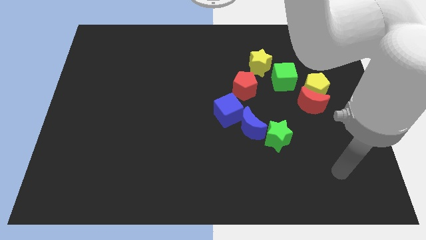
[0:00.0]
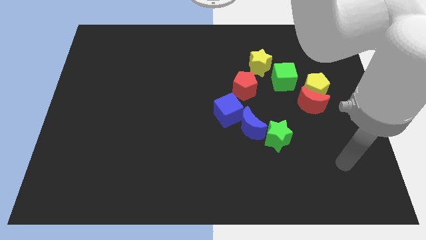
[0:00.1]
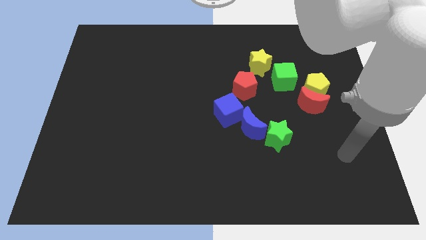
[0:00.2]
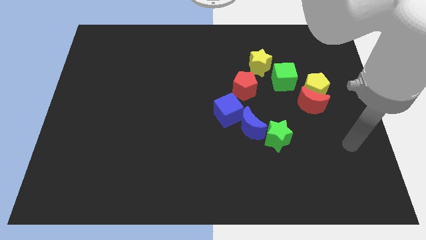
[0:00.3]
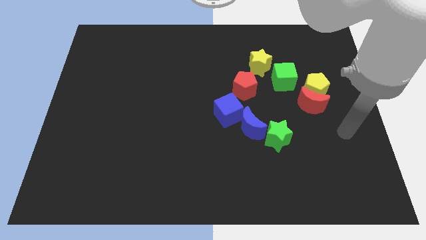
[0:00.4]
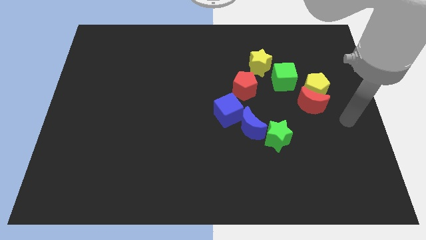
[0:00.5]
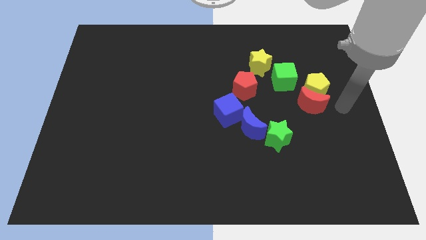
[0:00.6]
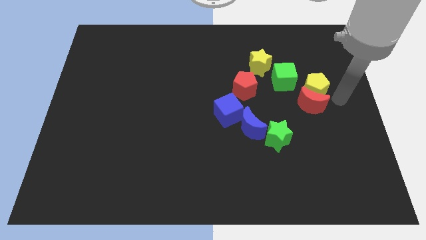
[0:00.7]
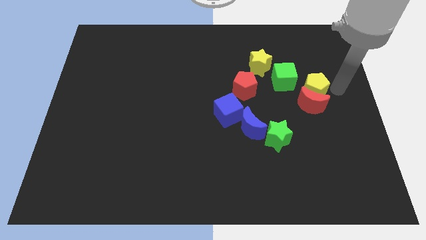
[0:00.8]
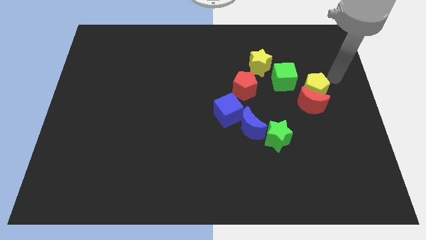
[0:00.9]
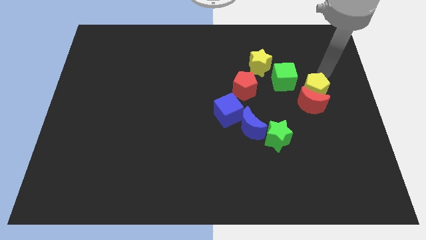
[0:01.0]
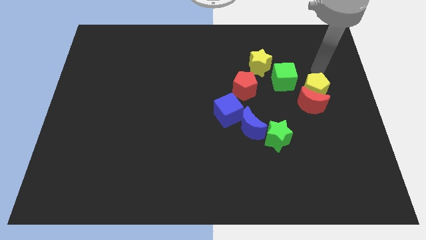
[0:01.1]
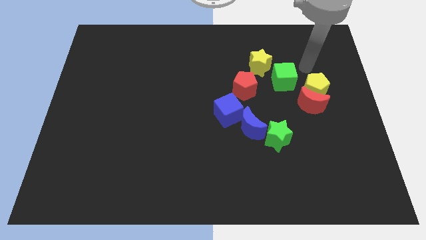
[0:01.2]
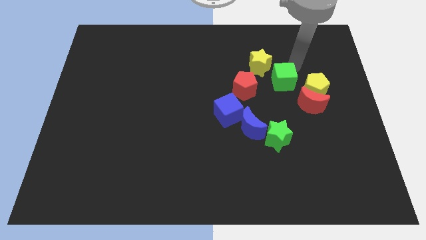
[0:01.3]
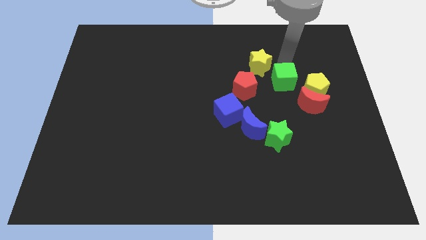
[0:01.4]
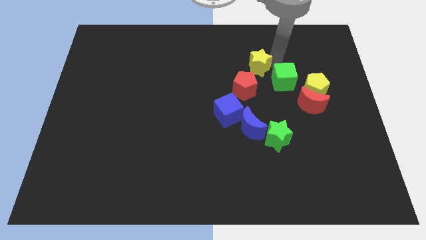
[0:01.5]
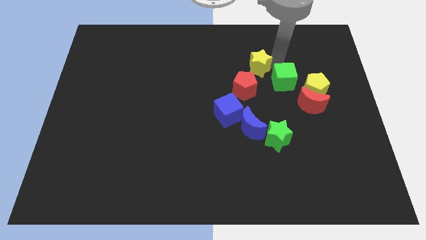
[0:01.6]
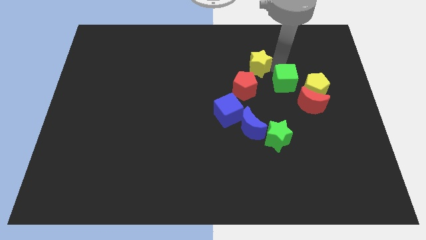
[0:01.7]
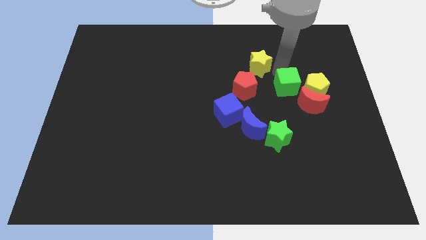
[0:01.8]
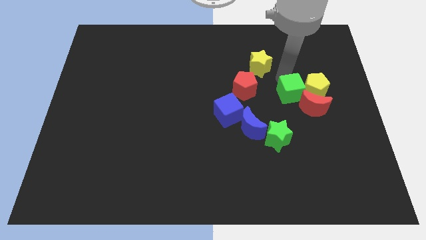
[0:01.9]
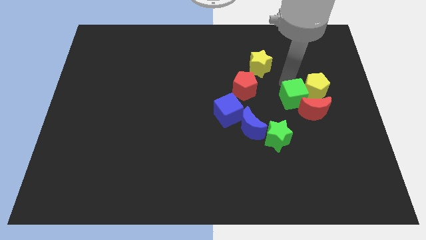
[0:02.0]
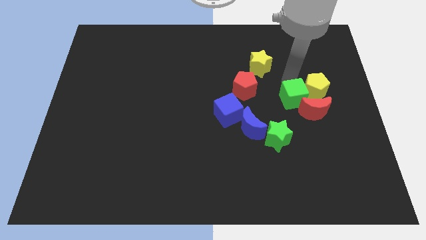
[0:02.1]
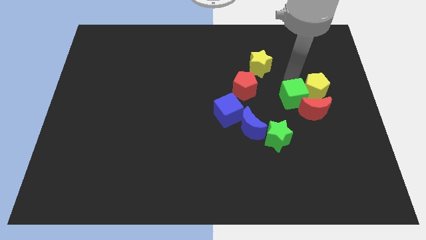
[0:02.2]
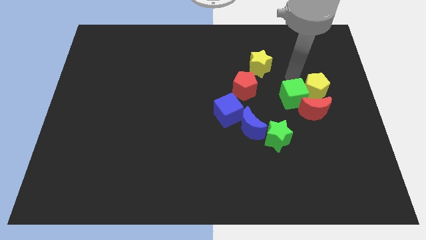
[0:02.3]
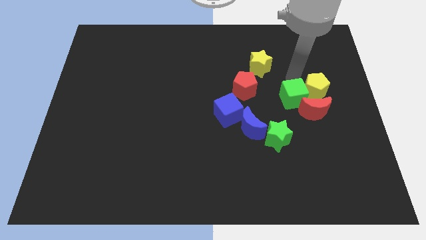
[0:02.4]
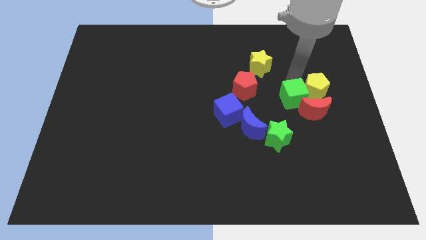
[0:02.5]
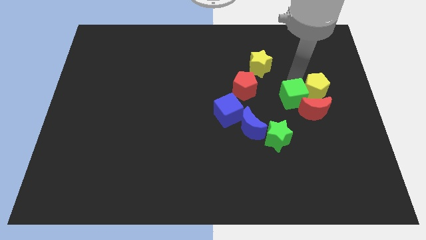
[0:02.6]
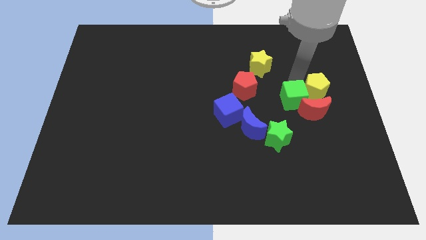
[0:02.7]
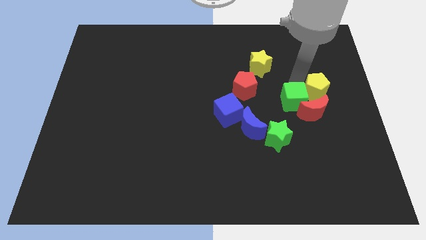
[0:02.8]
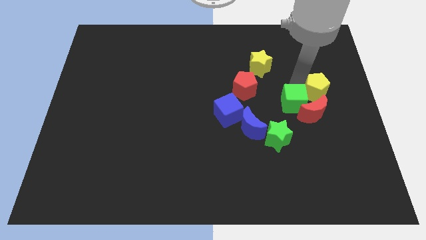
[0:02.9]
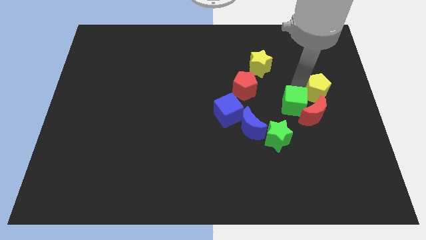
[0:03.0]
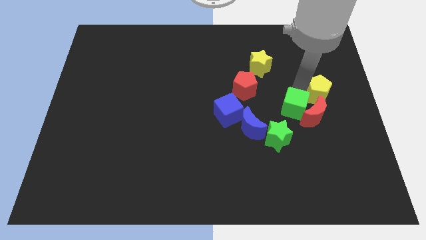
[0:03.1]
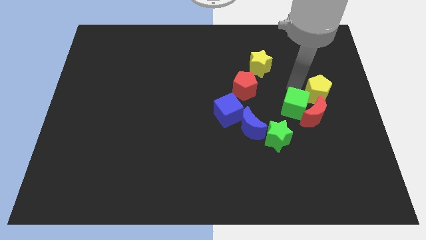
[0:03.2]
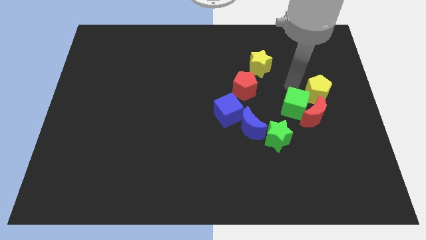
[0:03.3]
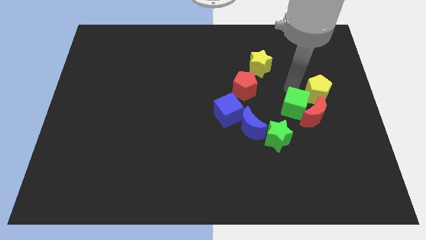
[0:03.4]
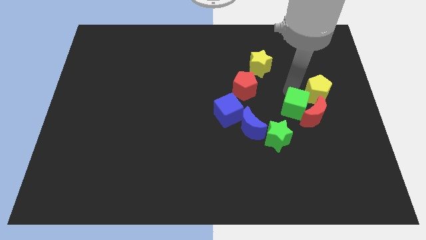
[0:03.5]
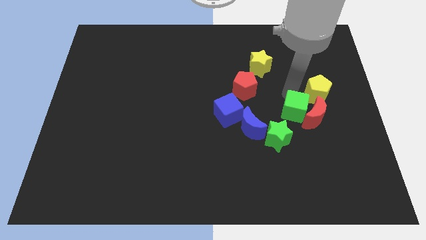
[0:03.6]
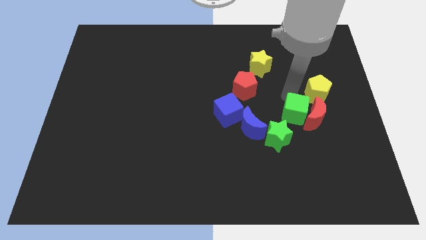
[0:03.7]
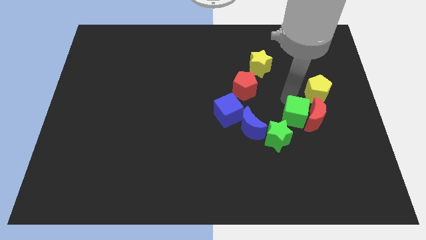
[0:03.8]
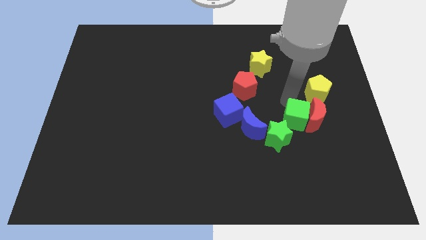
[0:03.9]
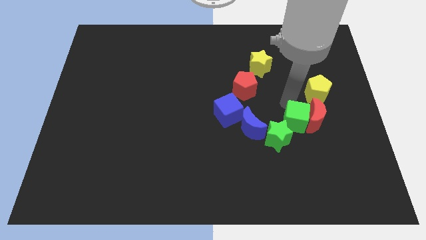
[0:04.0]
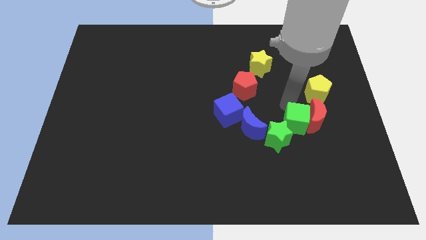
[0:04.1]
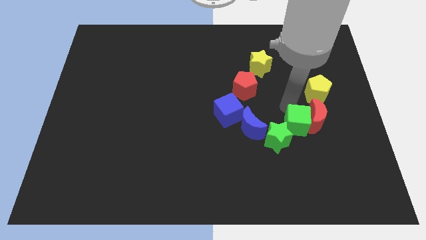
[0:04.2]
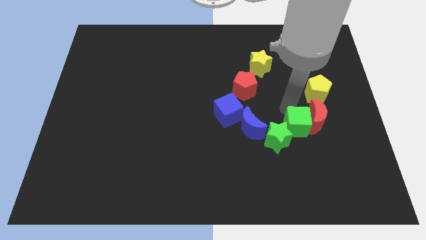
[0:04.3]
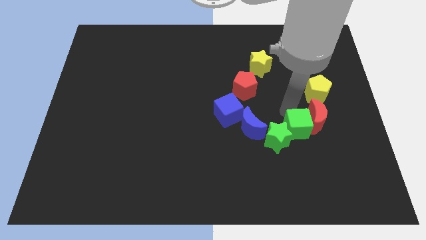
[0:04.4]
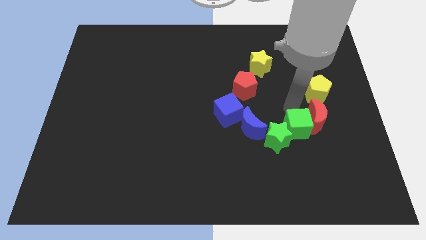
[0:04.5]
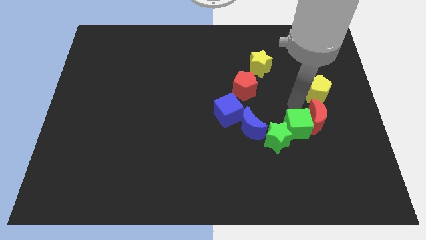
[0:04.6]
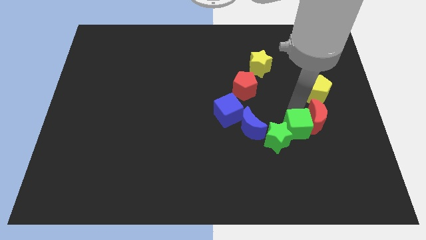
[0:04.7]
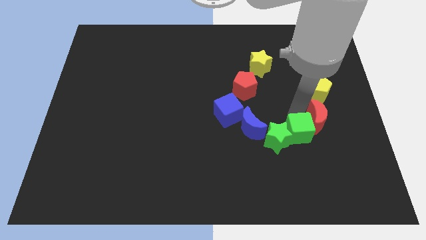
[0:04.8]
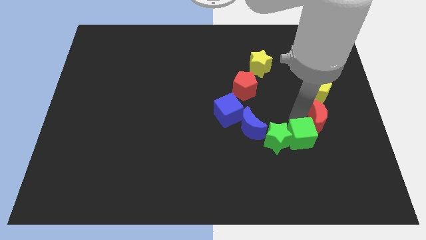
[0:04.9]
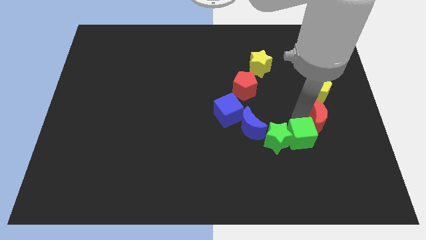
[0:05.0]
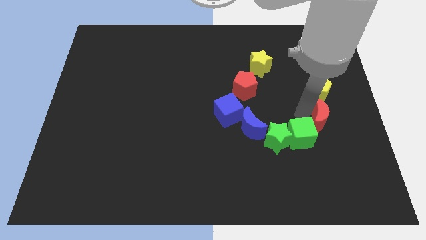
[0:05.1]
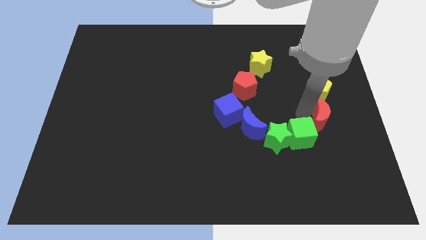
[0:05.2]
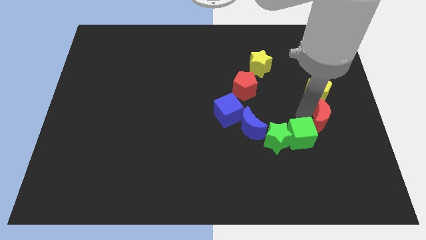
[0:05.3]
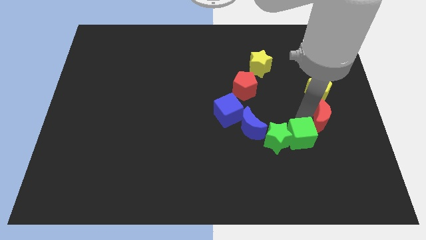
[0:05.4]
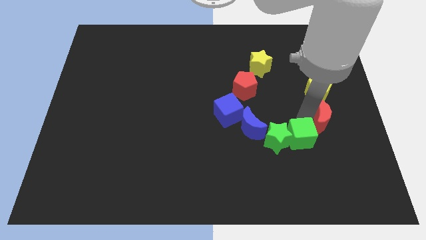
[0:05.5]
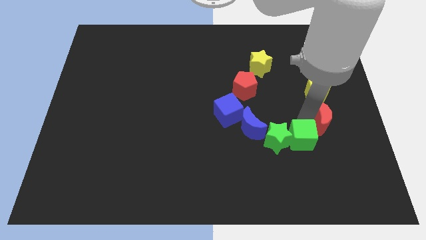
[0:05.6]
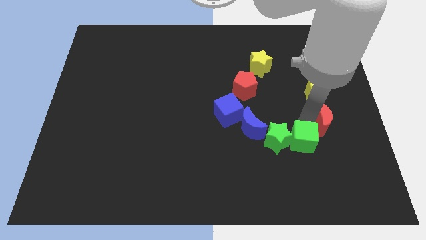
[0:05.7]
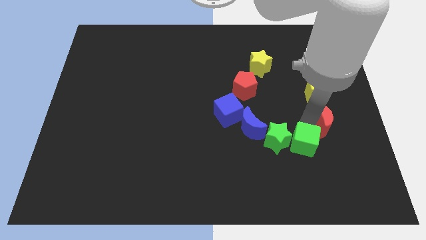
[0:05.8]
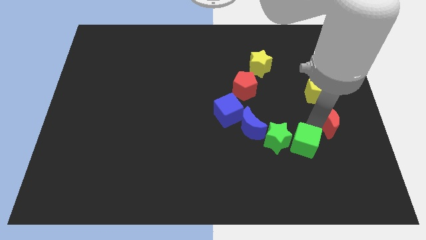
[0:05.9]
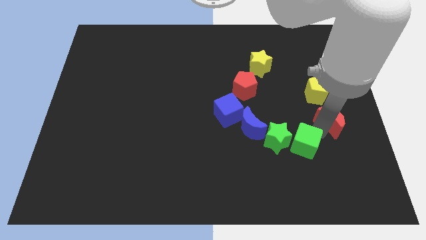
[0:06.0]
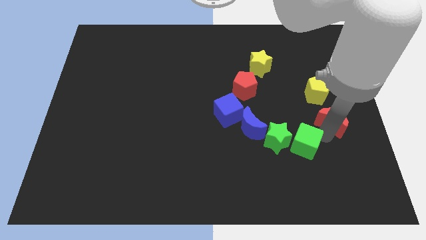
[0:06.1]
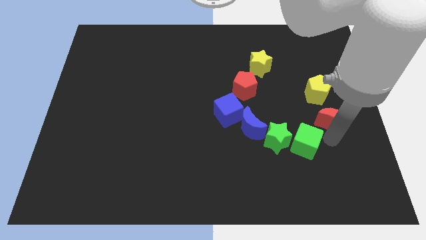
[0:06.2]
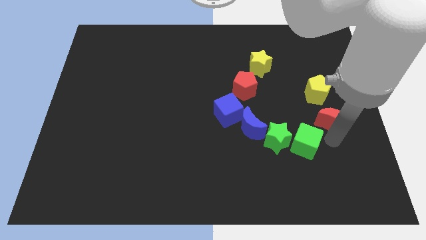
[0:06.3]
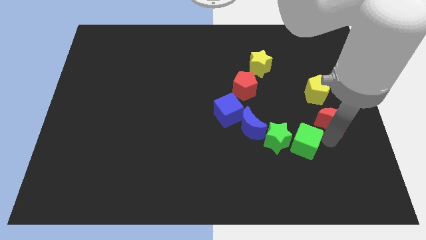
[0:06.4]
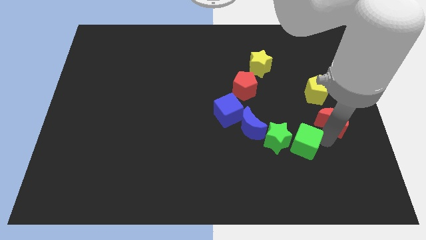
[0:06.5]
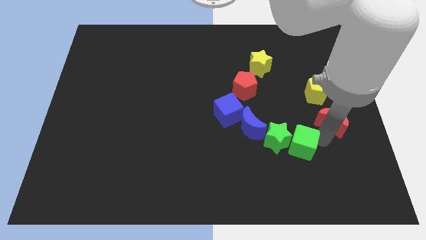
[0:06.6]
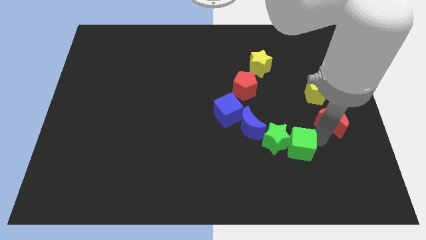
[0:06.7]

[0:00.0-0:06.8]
put the green cube to the bottom right of the blue moon

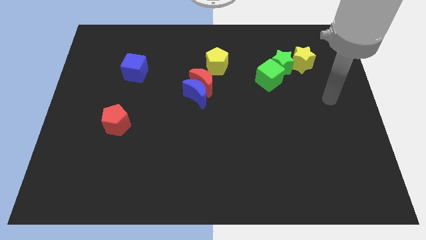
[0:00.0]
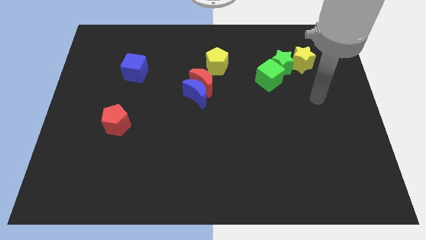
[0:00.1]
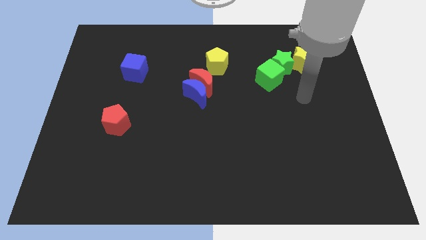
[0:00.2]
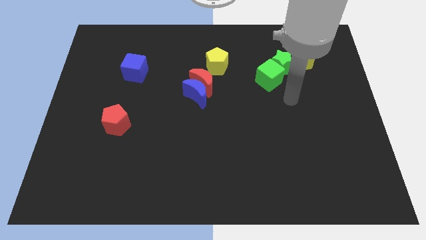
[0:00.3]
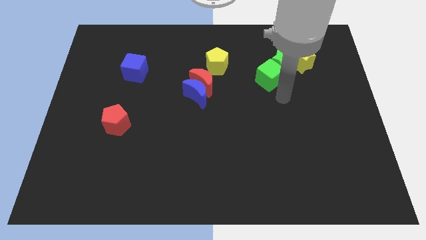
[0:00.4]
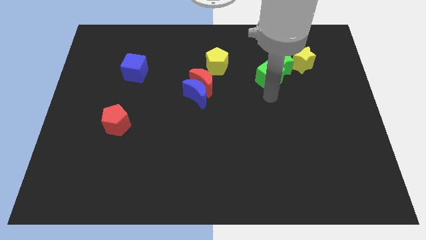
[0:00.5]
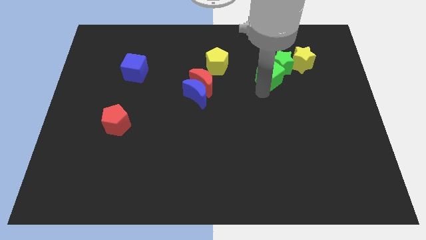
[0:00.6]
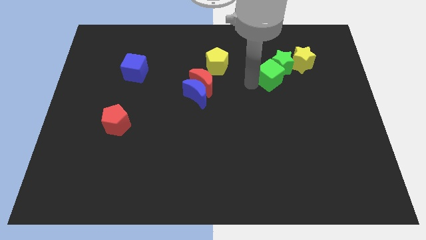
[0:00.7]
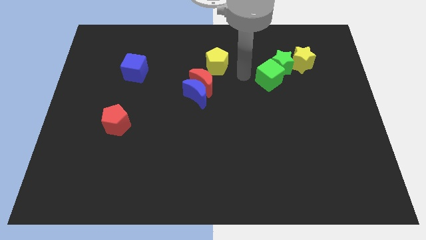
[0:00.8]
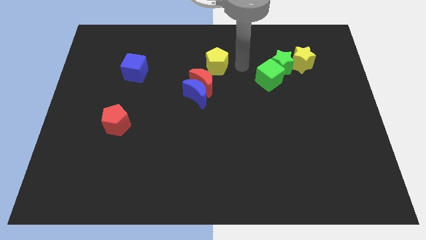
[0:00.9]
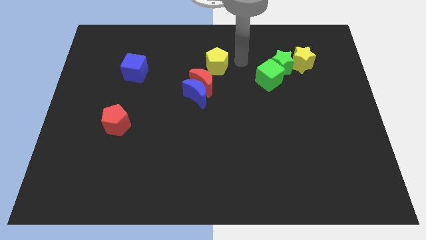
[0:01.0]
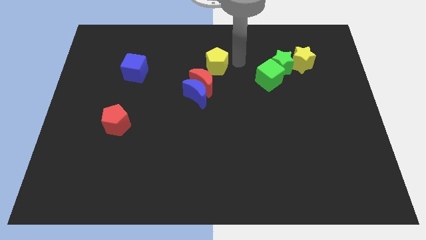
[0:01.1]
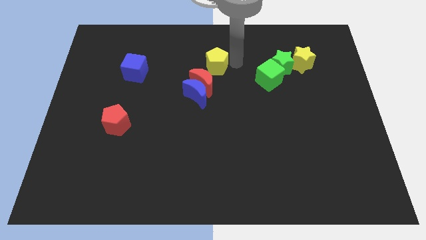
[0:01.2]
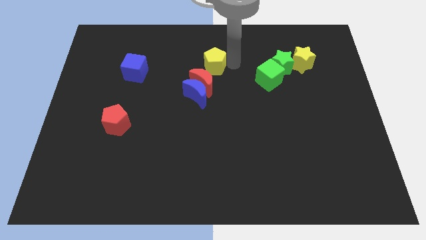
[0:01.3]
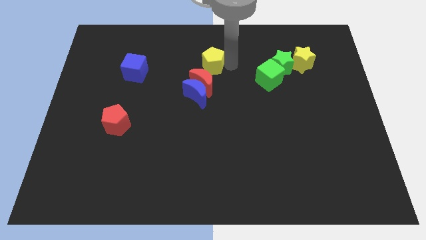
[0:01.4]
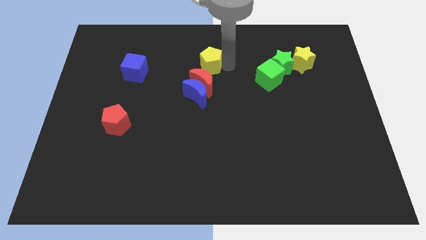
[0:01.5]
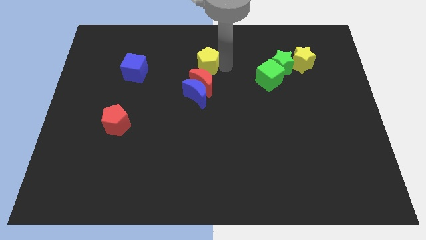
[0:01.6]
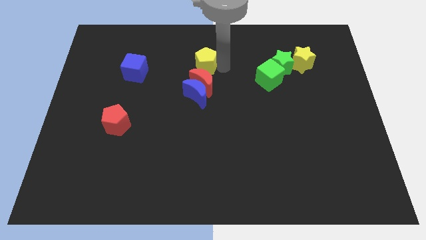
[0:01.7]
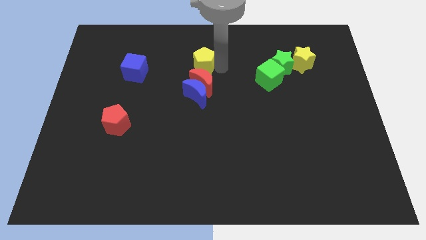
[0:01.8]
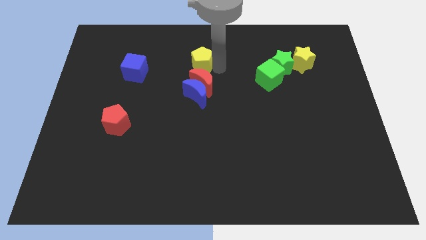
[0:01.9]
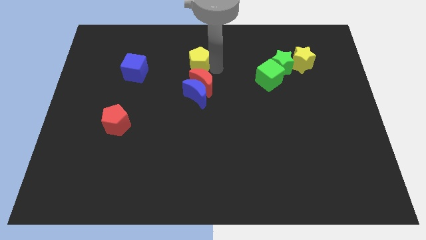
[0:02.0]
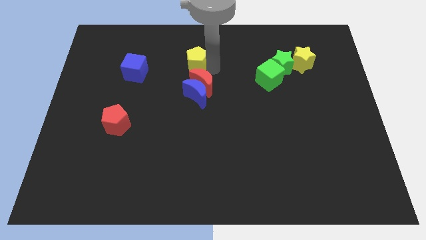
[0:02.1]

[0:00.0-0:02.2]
move the yellow pentagon to the right of the blue cube
